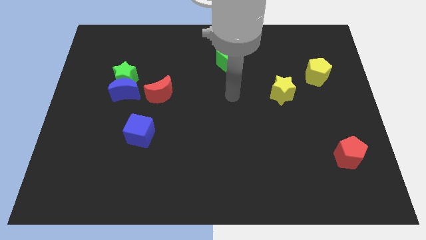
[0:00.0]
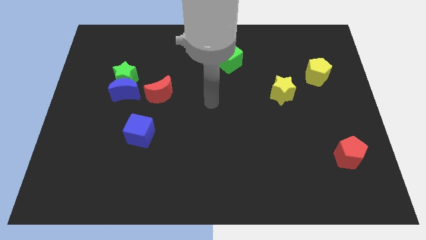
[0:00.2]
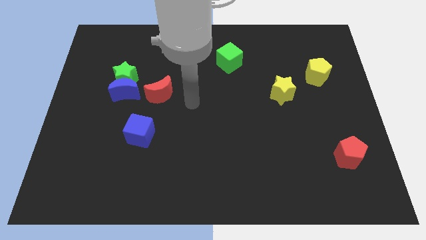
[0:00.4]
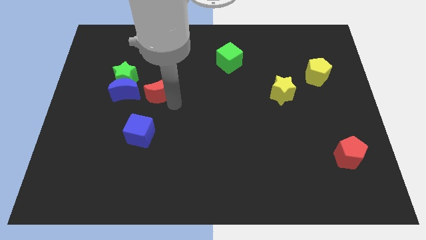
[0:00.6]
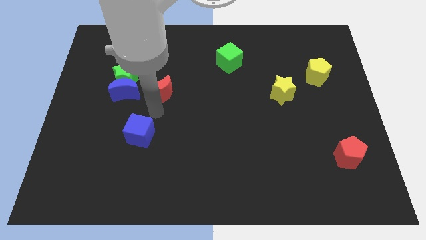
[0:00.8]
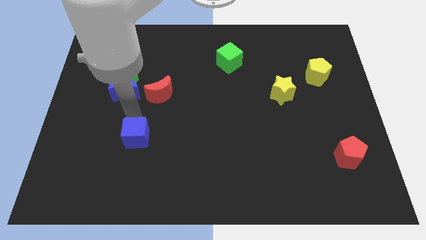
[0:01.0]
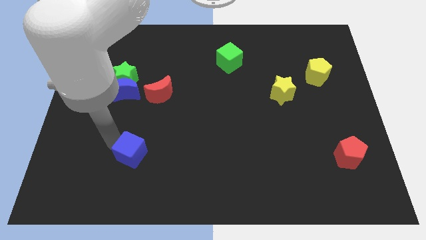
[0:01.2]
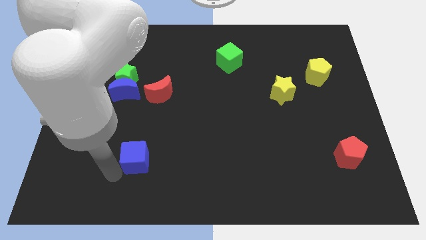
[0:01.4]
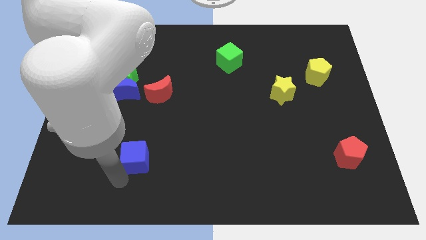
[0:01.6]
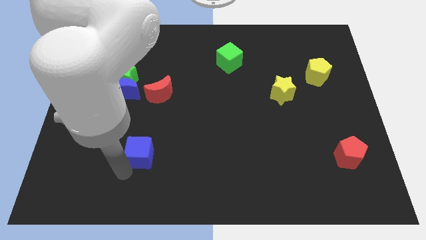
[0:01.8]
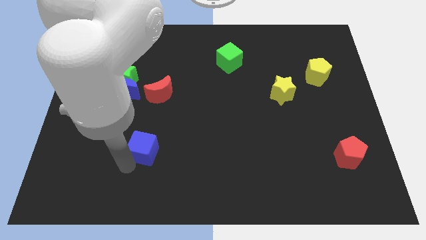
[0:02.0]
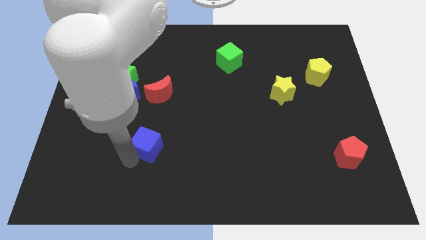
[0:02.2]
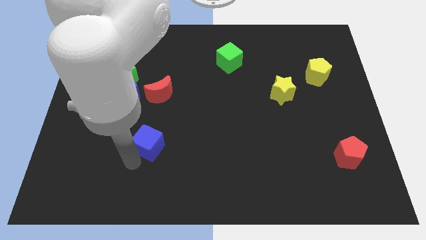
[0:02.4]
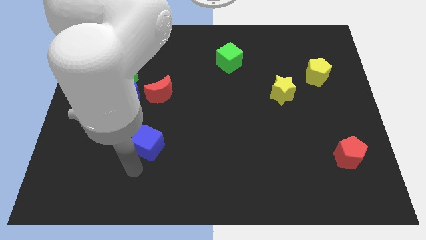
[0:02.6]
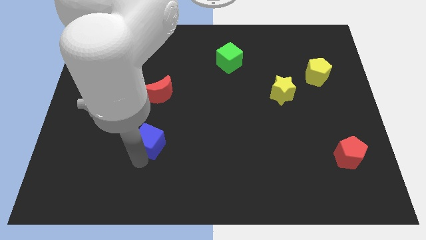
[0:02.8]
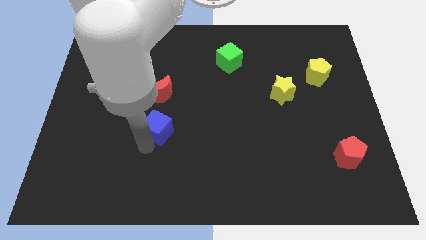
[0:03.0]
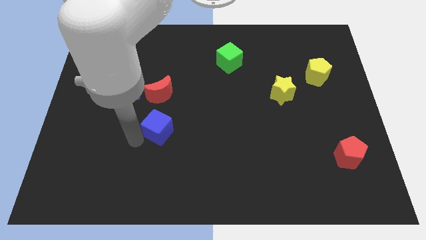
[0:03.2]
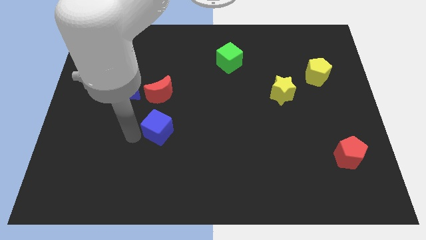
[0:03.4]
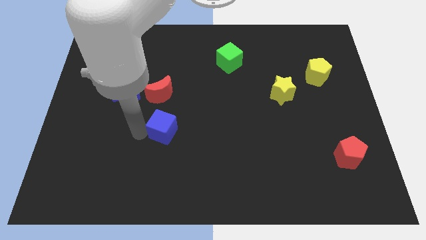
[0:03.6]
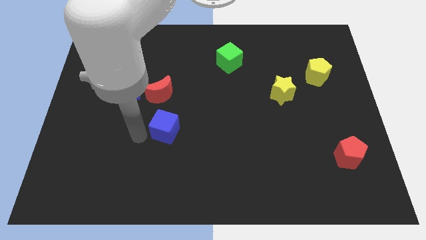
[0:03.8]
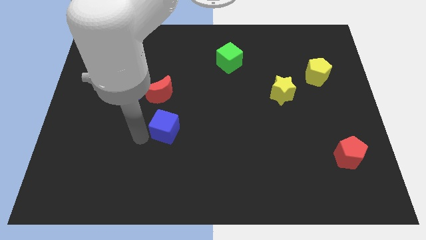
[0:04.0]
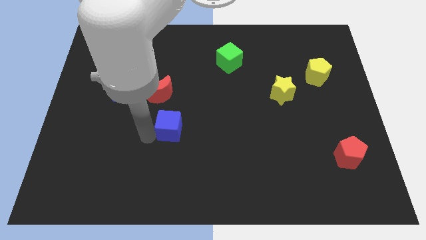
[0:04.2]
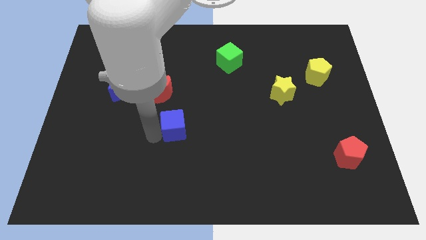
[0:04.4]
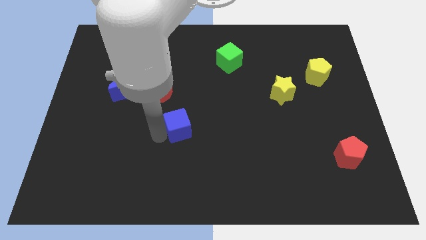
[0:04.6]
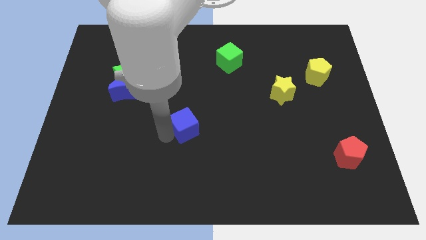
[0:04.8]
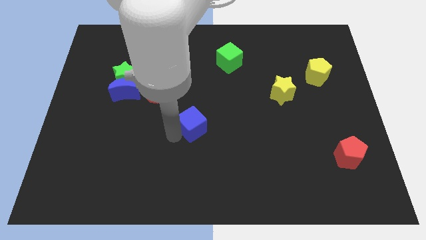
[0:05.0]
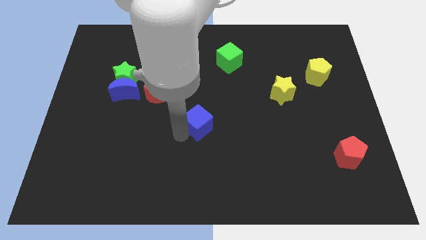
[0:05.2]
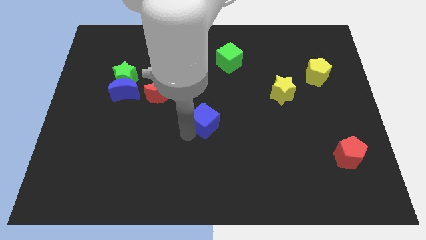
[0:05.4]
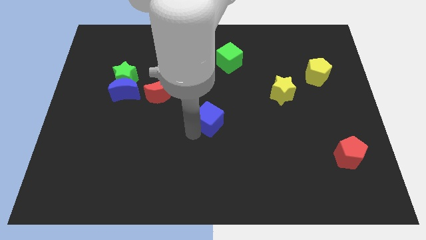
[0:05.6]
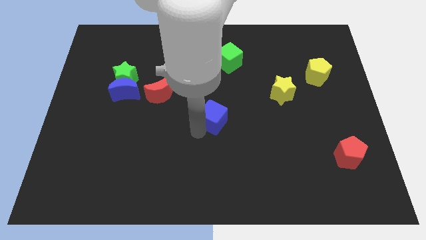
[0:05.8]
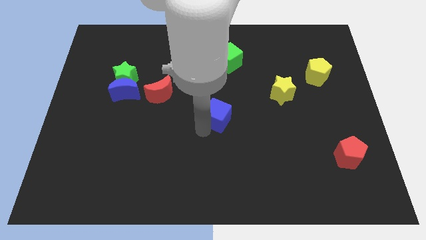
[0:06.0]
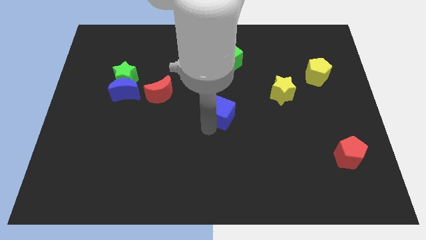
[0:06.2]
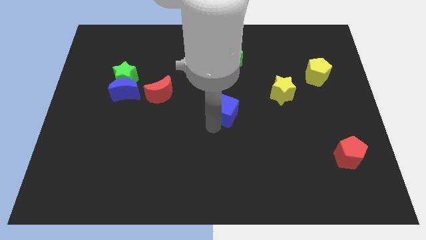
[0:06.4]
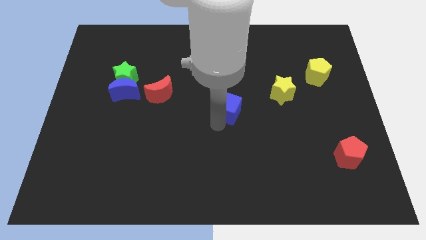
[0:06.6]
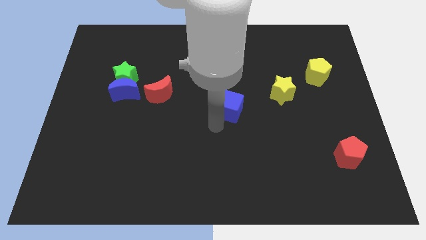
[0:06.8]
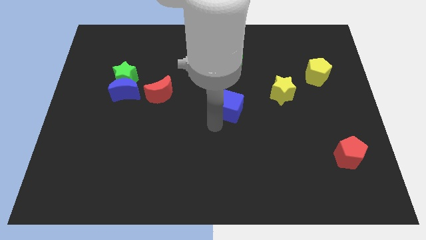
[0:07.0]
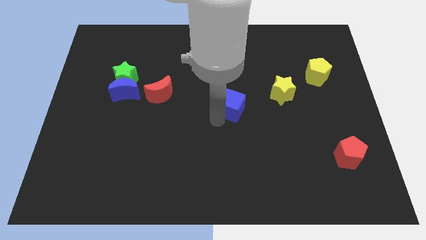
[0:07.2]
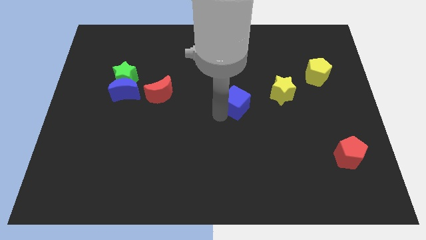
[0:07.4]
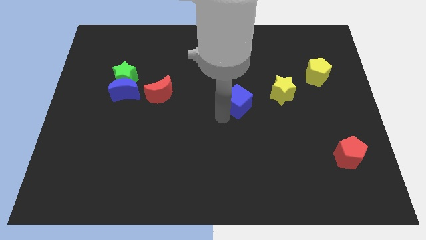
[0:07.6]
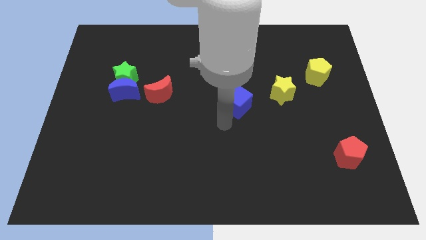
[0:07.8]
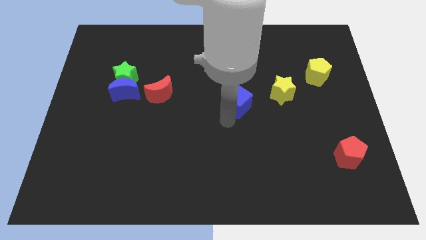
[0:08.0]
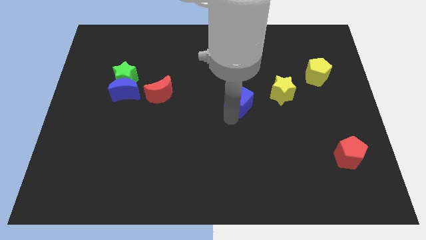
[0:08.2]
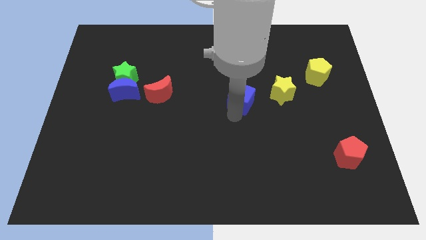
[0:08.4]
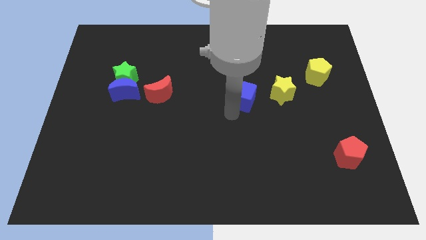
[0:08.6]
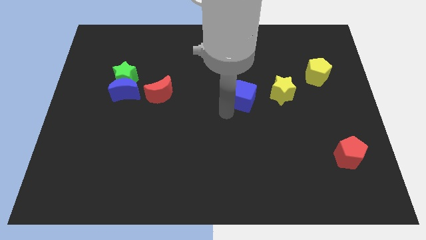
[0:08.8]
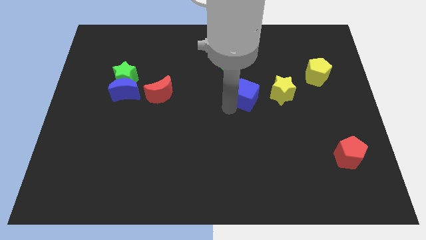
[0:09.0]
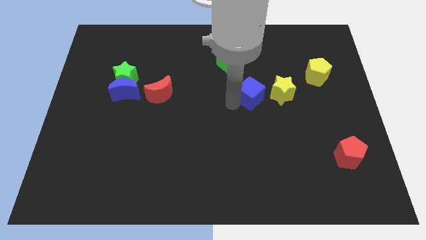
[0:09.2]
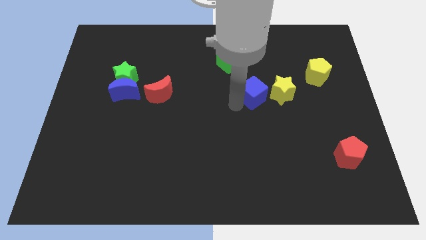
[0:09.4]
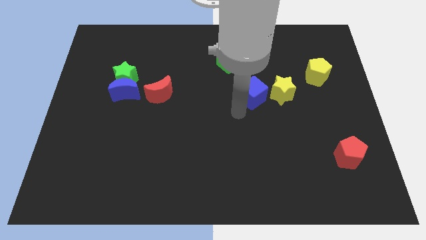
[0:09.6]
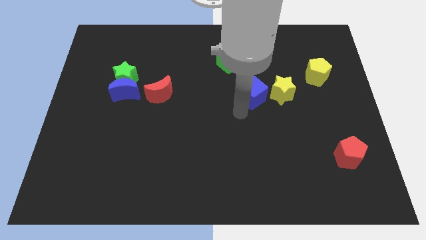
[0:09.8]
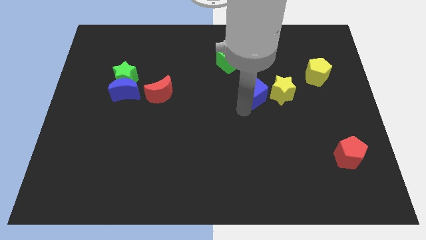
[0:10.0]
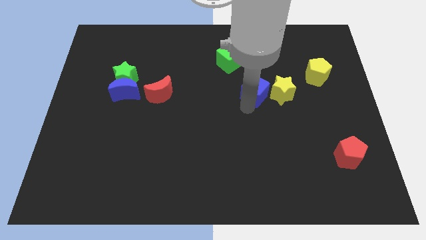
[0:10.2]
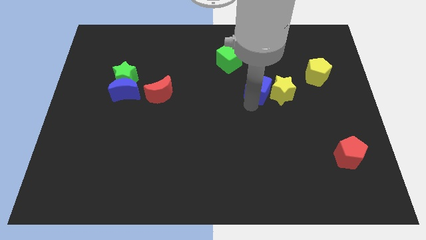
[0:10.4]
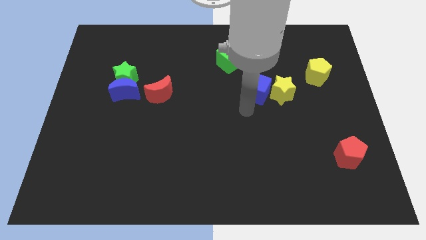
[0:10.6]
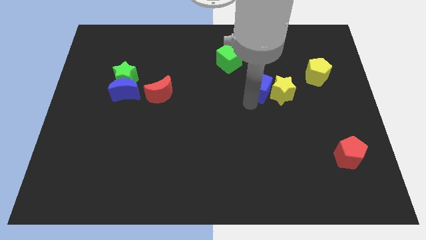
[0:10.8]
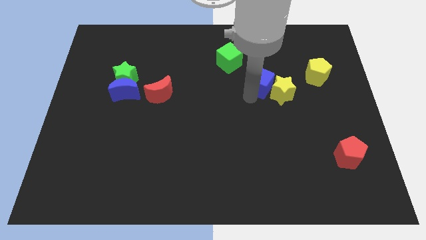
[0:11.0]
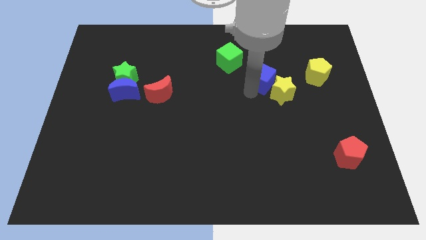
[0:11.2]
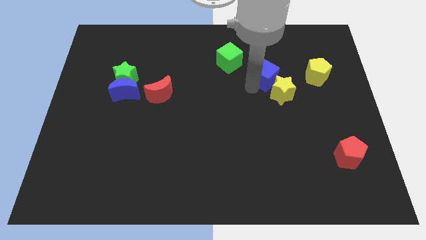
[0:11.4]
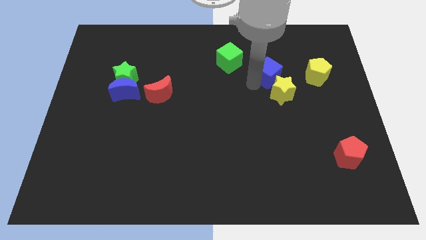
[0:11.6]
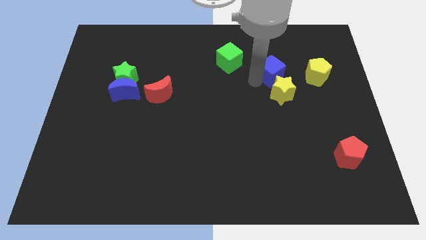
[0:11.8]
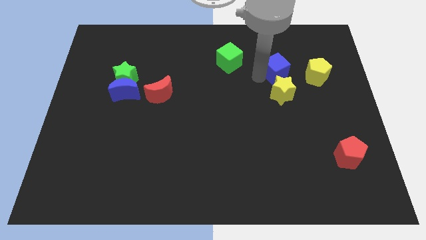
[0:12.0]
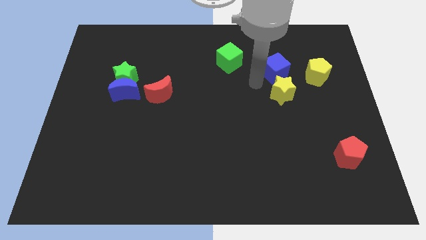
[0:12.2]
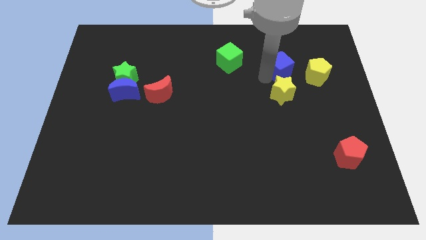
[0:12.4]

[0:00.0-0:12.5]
push the blue cube to the top left of the yellow pentagon
